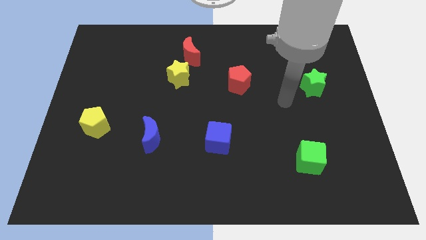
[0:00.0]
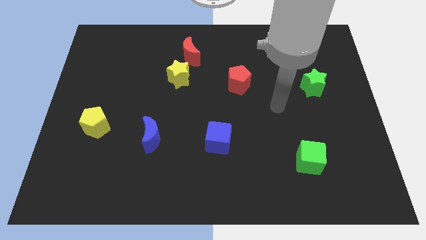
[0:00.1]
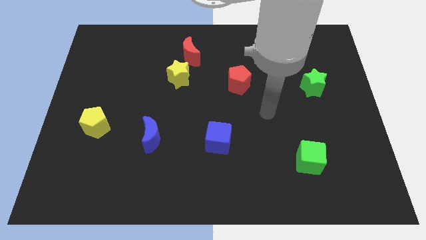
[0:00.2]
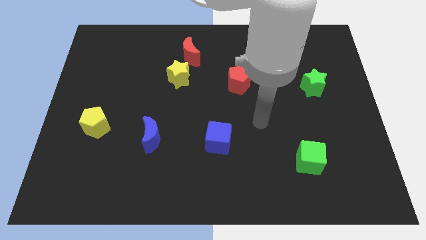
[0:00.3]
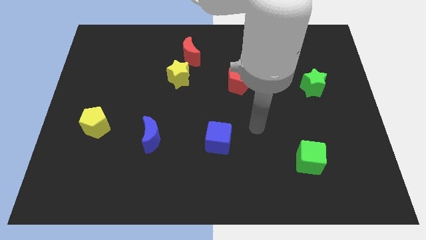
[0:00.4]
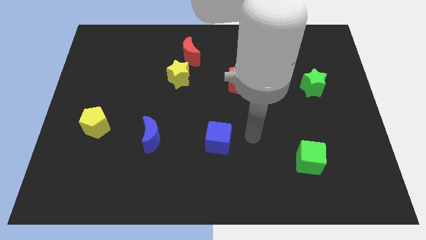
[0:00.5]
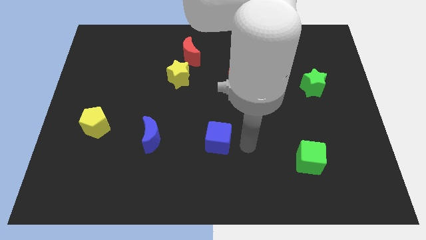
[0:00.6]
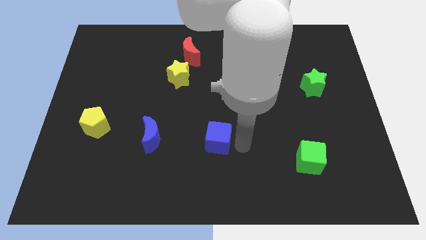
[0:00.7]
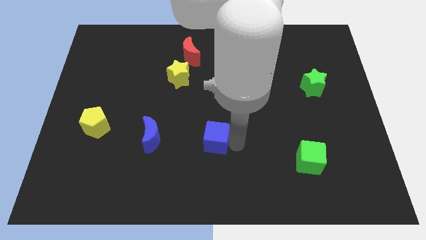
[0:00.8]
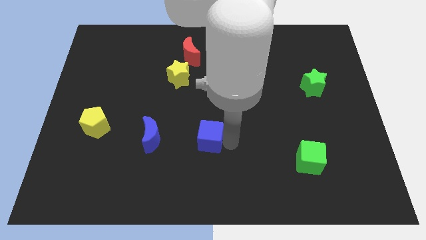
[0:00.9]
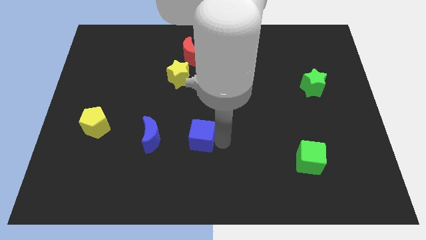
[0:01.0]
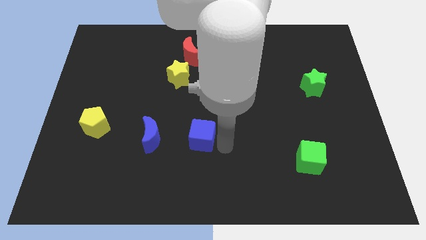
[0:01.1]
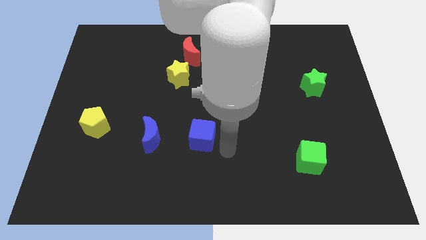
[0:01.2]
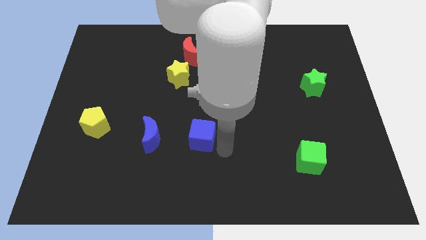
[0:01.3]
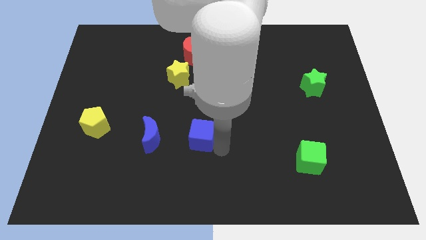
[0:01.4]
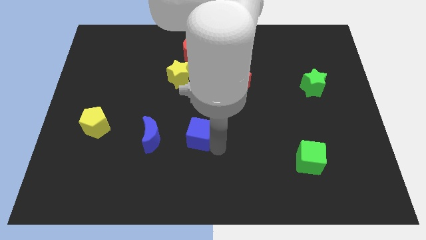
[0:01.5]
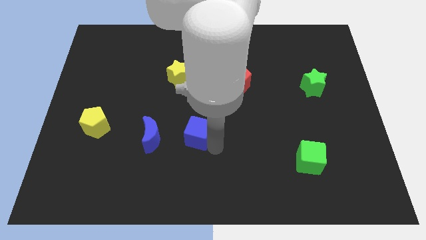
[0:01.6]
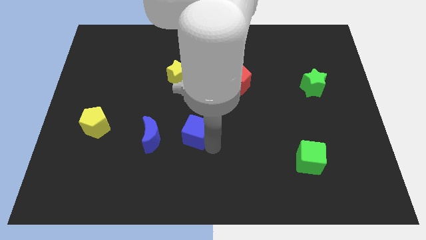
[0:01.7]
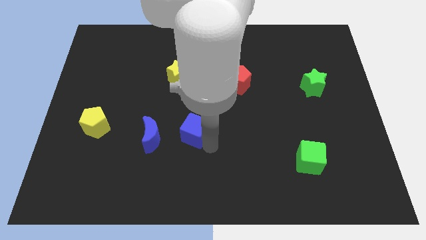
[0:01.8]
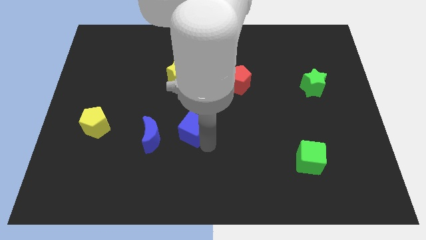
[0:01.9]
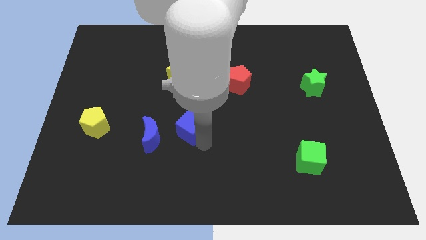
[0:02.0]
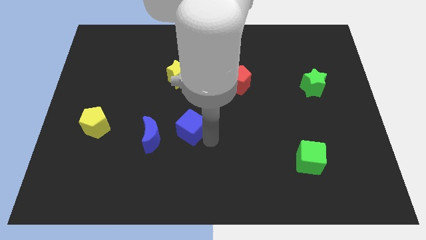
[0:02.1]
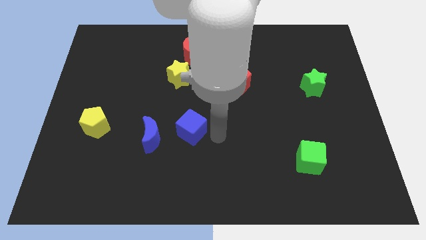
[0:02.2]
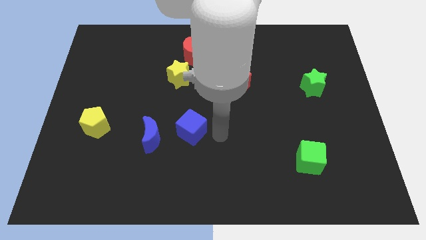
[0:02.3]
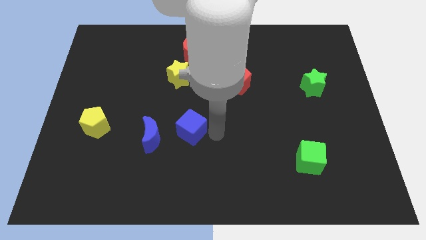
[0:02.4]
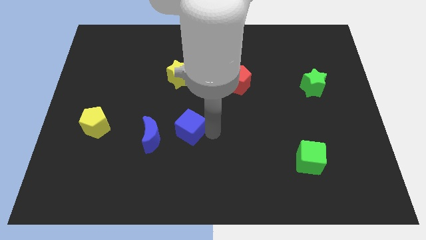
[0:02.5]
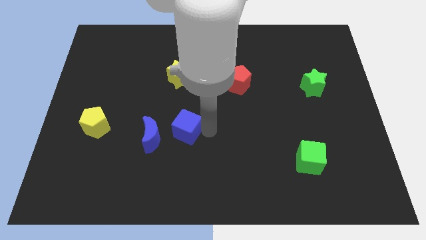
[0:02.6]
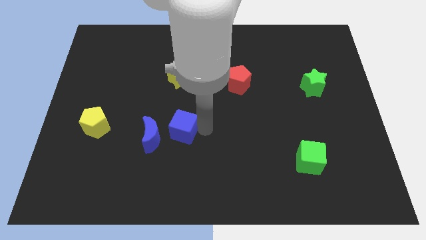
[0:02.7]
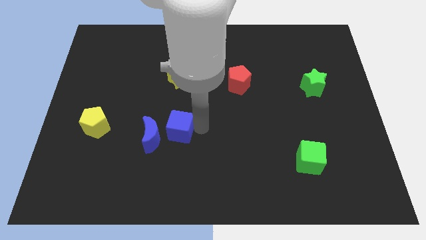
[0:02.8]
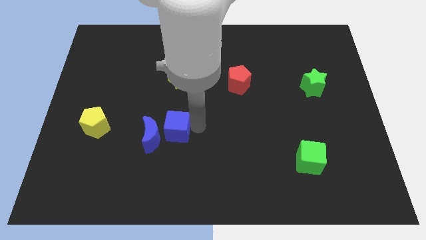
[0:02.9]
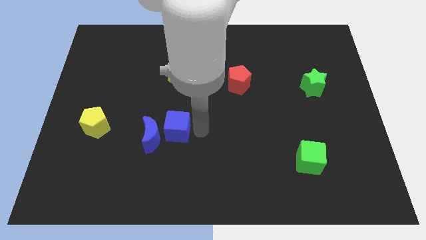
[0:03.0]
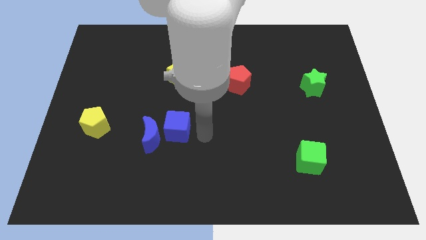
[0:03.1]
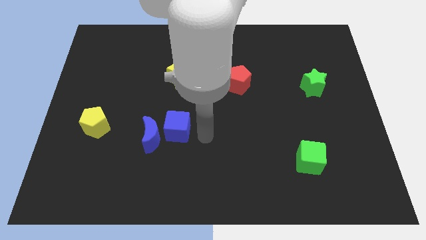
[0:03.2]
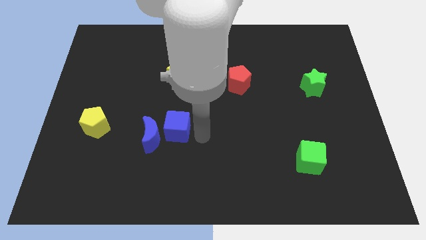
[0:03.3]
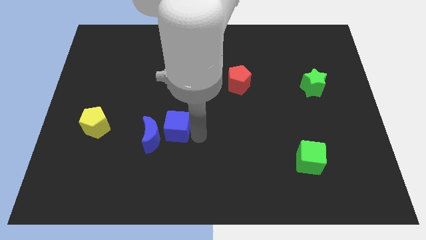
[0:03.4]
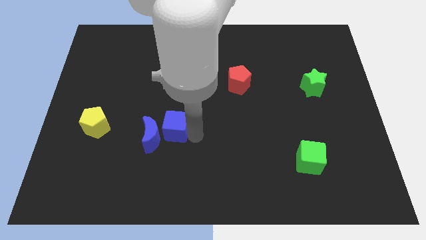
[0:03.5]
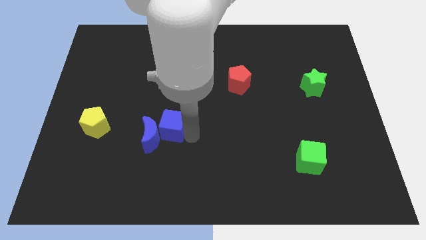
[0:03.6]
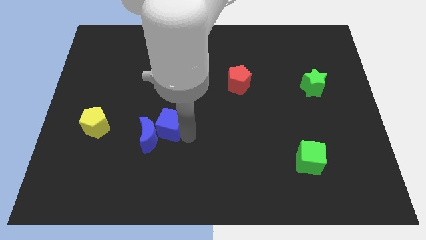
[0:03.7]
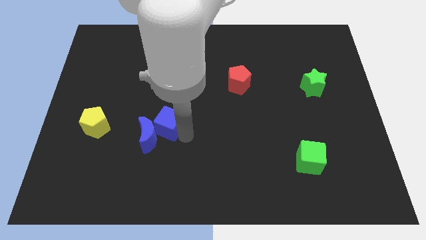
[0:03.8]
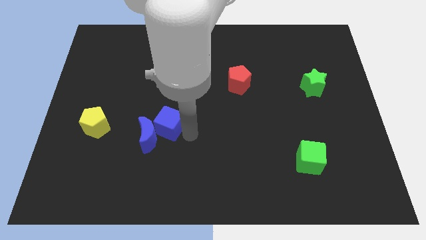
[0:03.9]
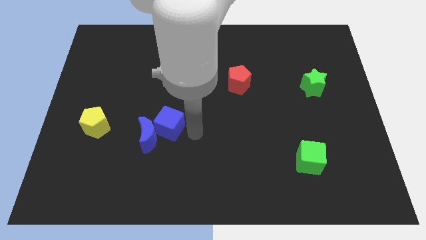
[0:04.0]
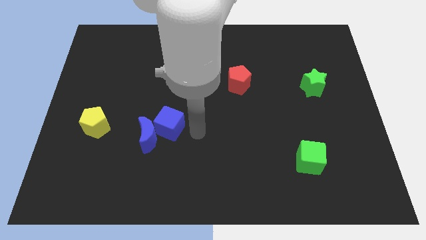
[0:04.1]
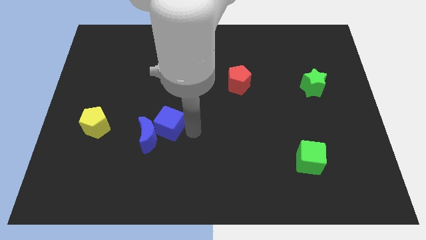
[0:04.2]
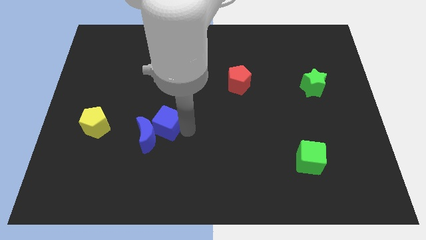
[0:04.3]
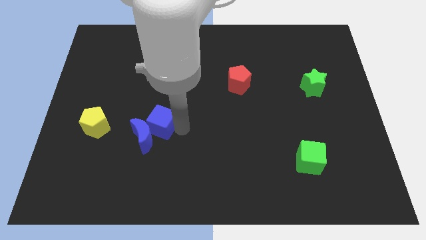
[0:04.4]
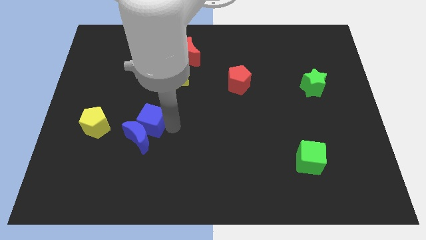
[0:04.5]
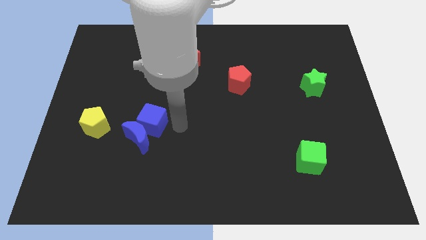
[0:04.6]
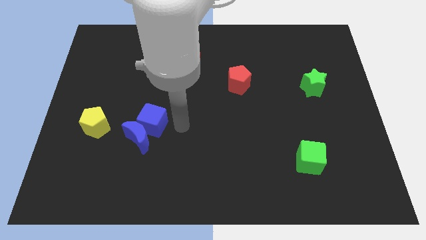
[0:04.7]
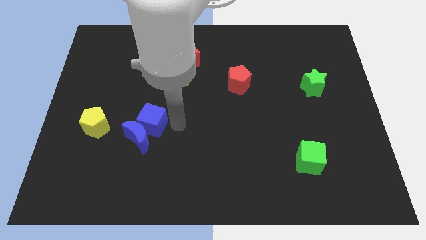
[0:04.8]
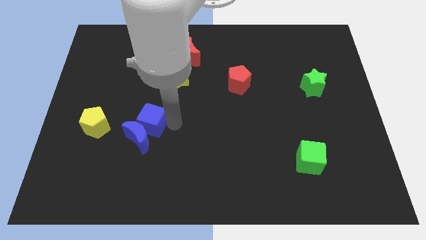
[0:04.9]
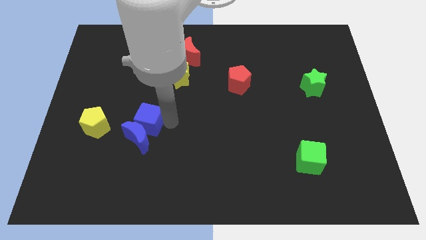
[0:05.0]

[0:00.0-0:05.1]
put the blue cube to the top left of the blue moon

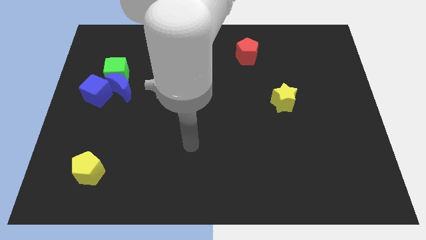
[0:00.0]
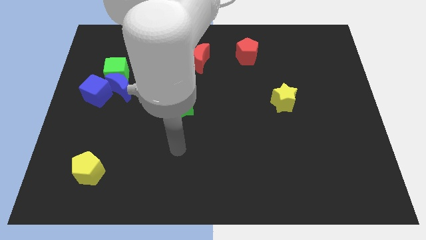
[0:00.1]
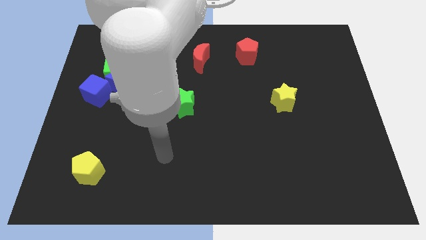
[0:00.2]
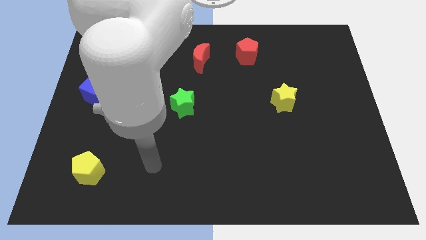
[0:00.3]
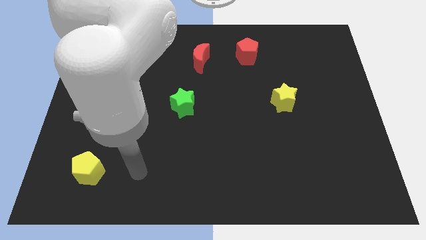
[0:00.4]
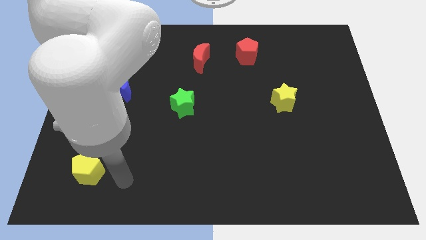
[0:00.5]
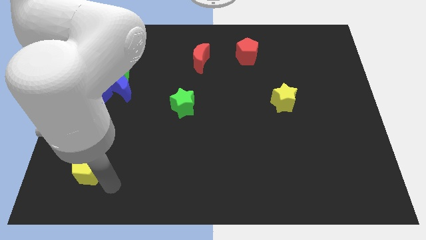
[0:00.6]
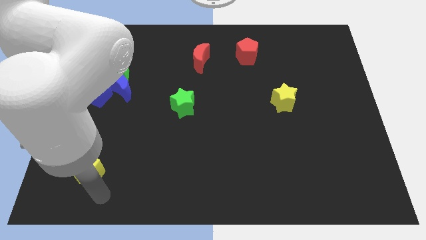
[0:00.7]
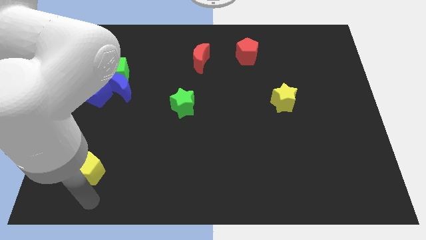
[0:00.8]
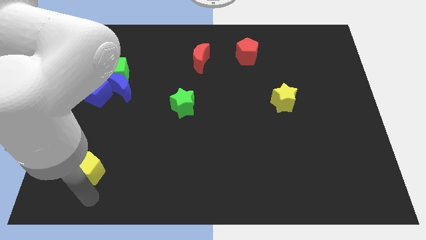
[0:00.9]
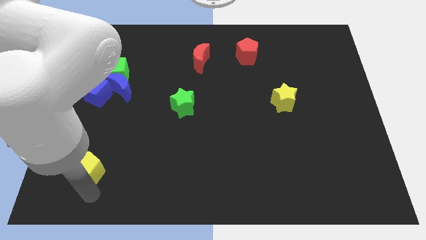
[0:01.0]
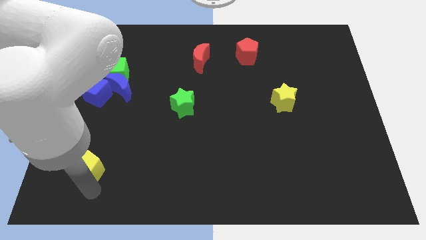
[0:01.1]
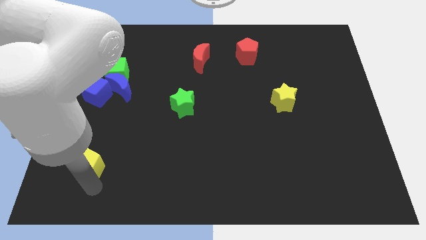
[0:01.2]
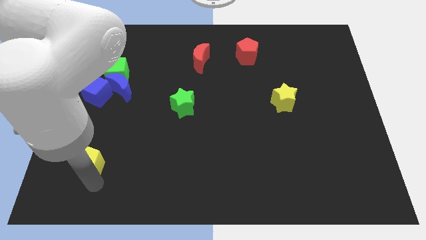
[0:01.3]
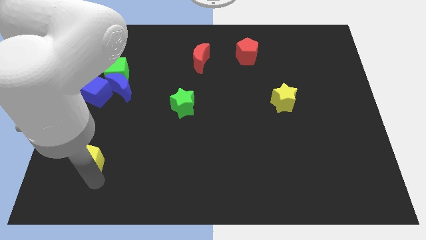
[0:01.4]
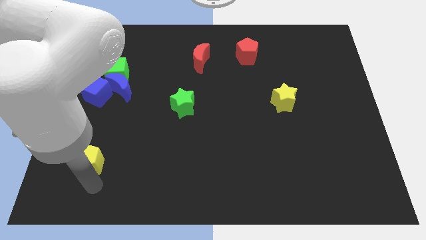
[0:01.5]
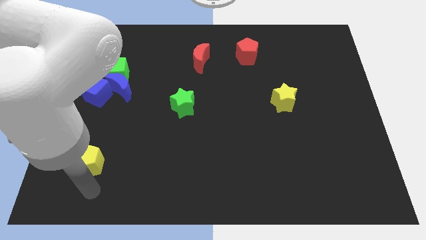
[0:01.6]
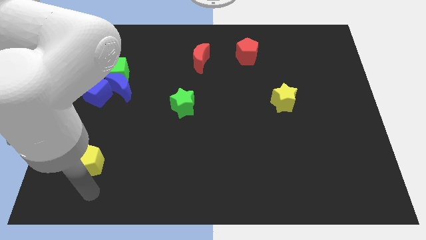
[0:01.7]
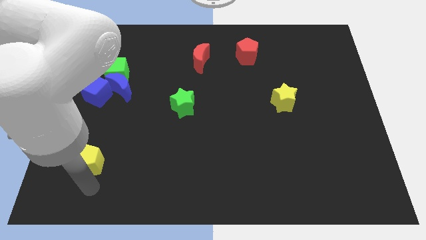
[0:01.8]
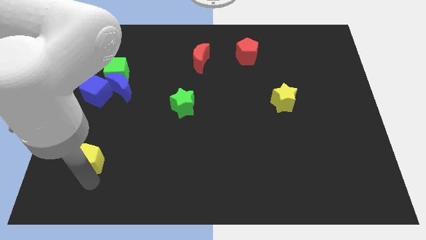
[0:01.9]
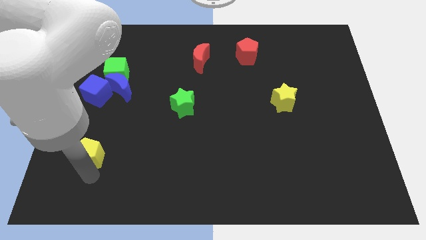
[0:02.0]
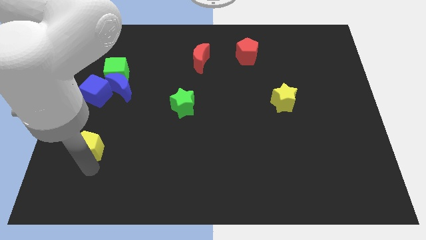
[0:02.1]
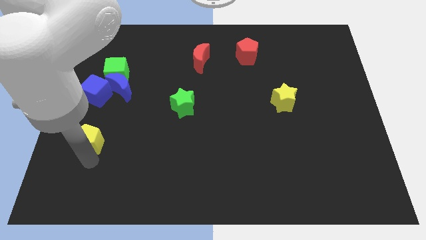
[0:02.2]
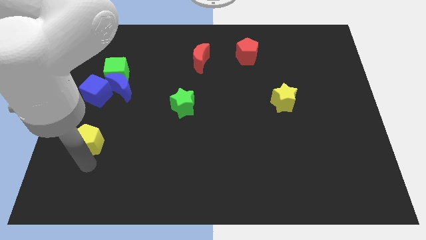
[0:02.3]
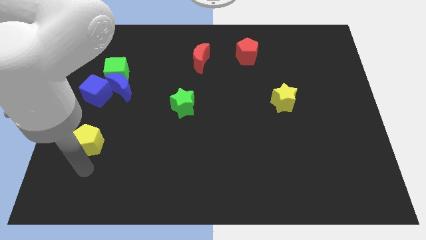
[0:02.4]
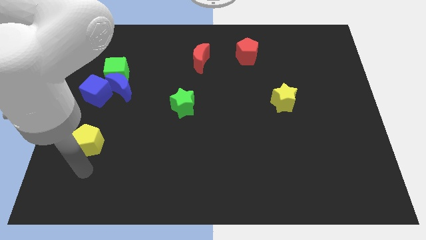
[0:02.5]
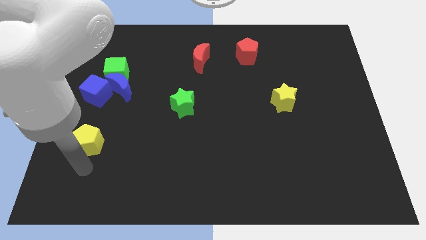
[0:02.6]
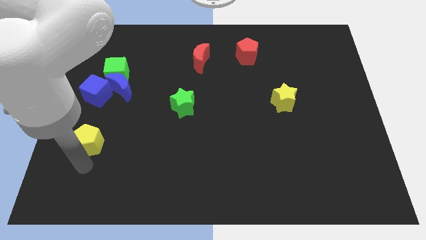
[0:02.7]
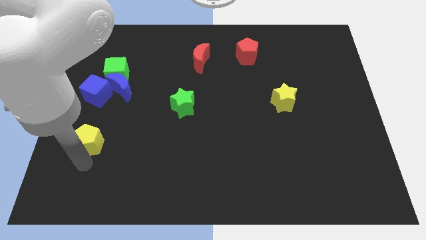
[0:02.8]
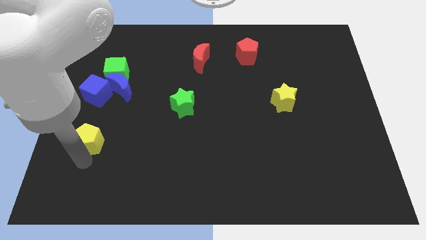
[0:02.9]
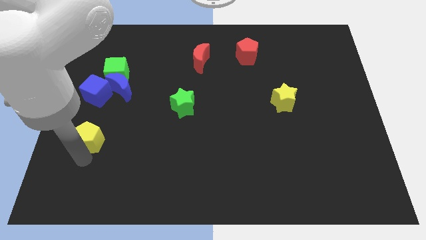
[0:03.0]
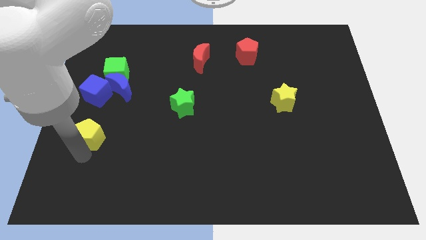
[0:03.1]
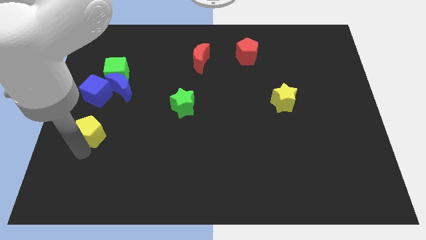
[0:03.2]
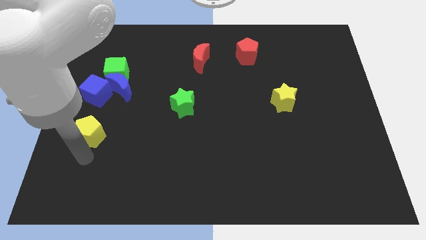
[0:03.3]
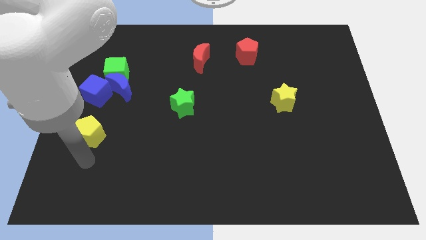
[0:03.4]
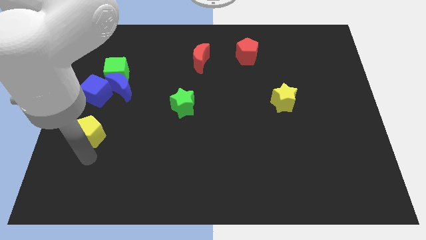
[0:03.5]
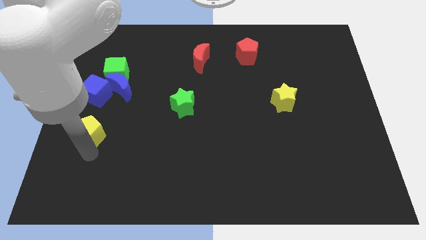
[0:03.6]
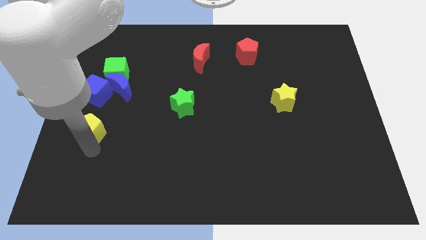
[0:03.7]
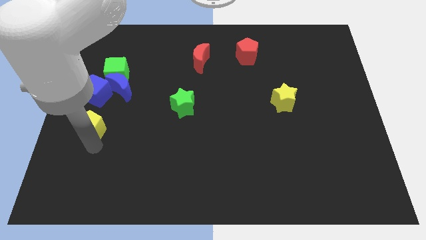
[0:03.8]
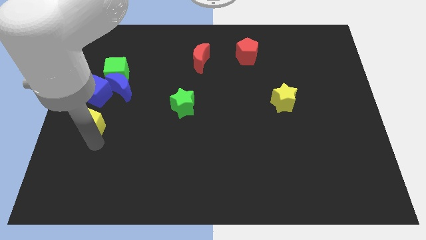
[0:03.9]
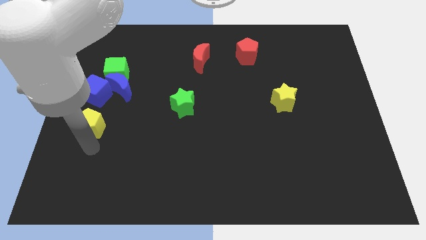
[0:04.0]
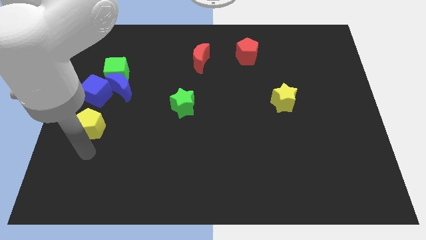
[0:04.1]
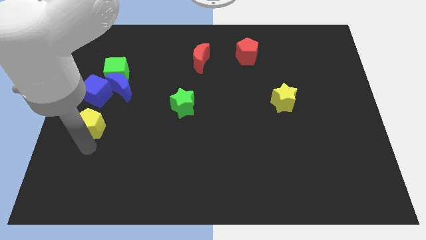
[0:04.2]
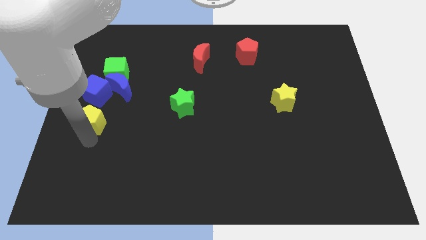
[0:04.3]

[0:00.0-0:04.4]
slide the yellow pentagon diagonally down and to the left of the blue moon
